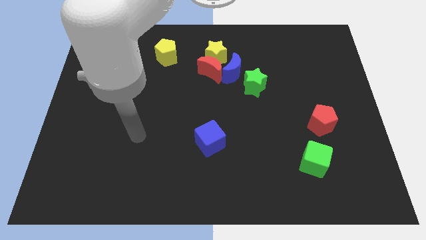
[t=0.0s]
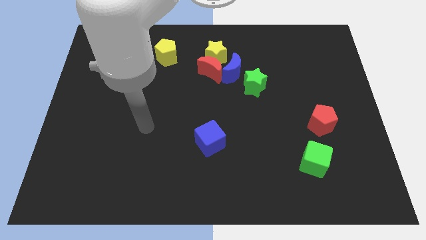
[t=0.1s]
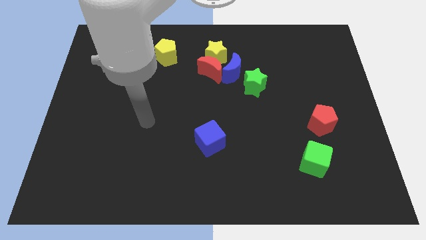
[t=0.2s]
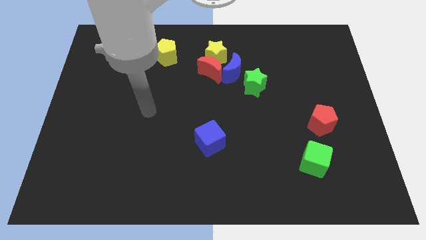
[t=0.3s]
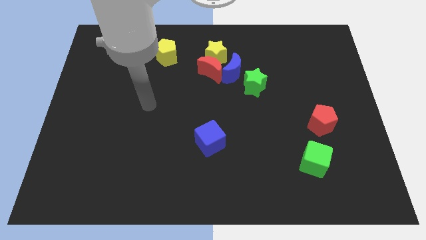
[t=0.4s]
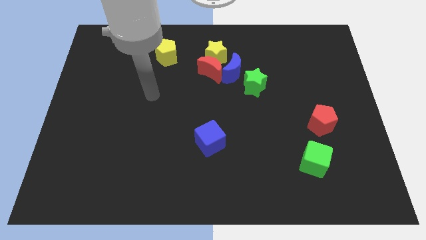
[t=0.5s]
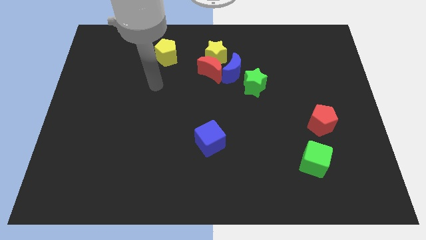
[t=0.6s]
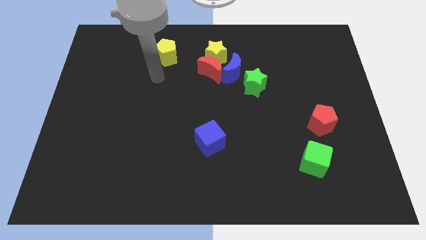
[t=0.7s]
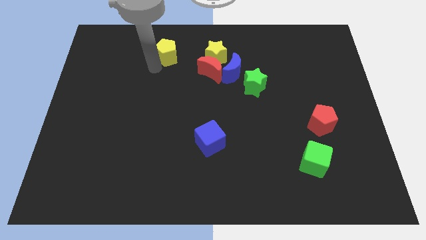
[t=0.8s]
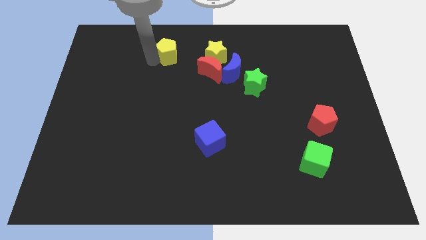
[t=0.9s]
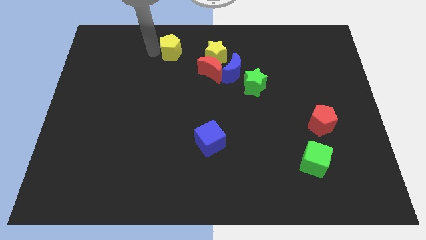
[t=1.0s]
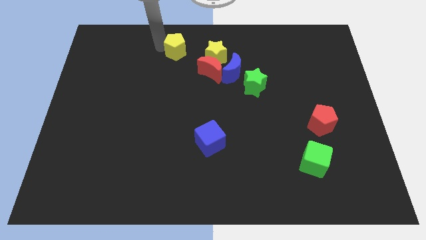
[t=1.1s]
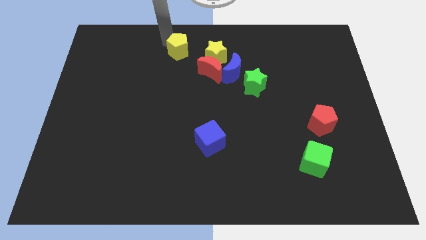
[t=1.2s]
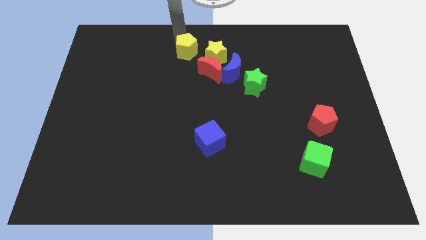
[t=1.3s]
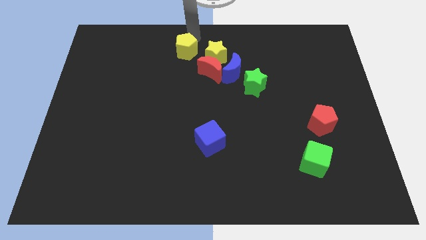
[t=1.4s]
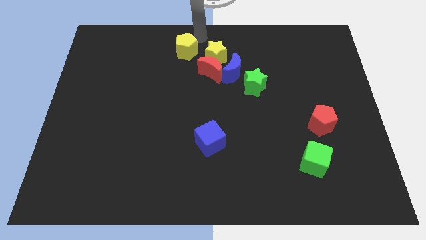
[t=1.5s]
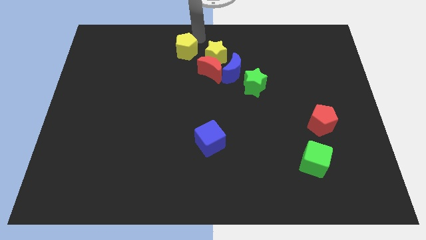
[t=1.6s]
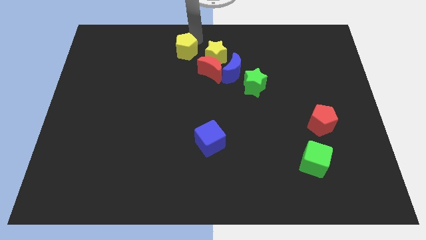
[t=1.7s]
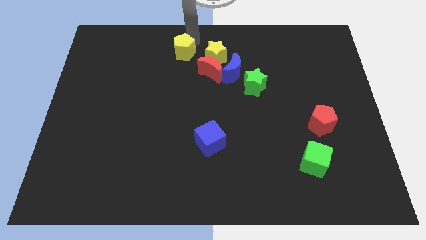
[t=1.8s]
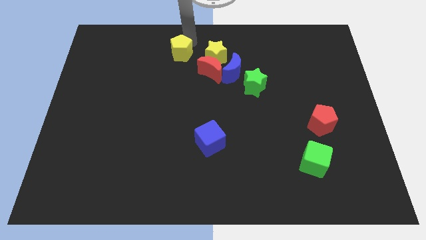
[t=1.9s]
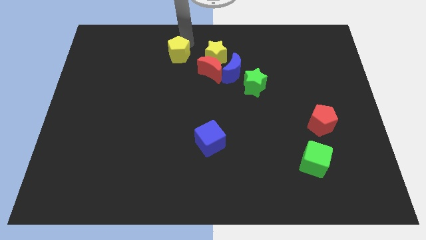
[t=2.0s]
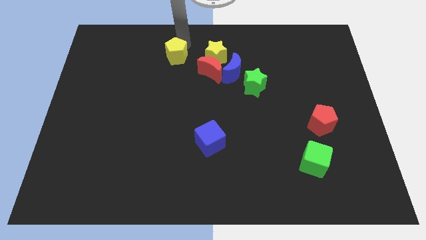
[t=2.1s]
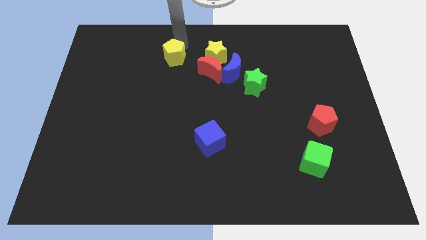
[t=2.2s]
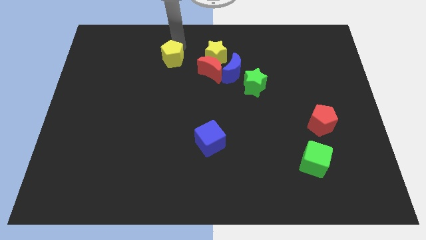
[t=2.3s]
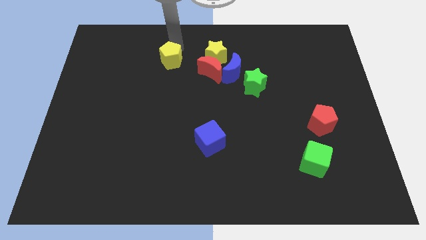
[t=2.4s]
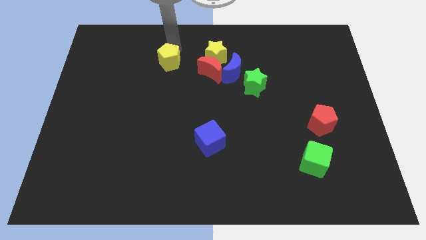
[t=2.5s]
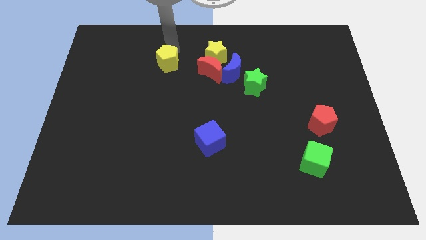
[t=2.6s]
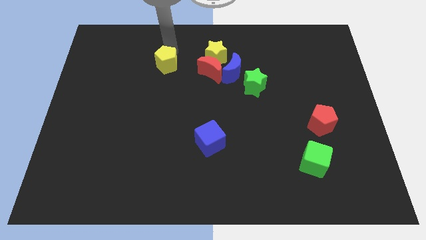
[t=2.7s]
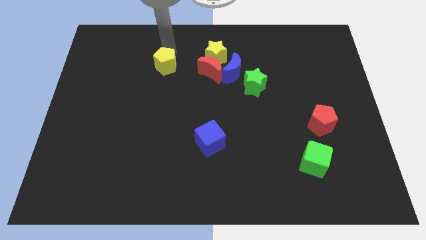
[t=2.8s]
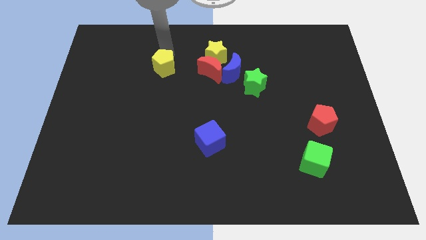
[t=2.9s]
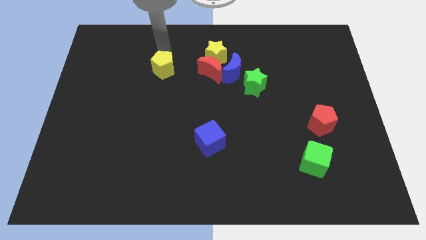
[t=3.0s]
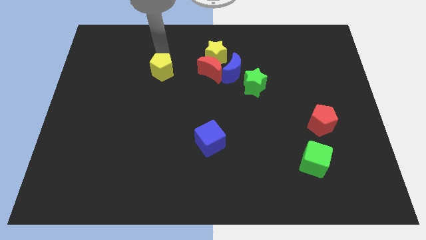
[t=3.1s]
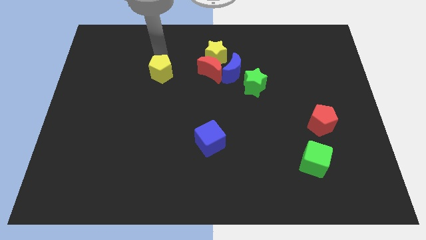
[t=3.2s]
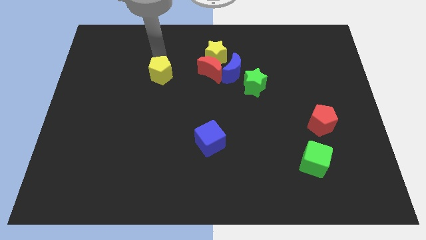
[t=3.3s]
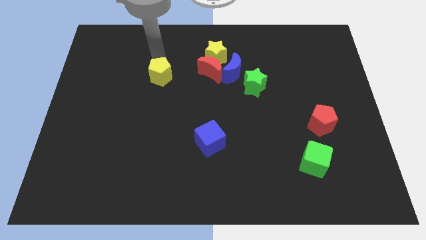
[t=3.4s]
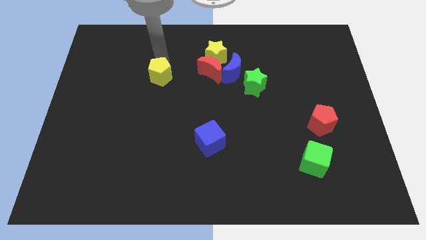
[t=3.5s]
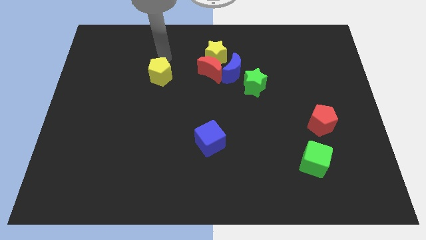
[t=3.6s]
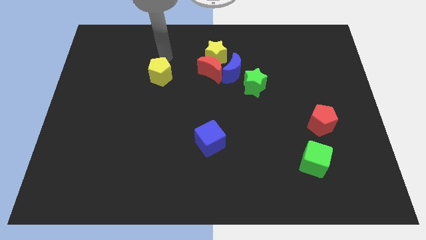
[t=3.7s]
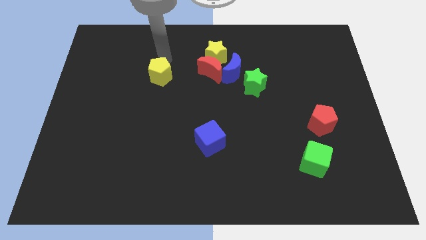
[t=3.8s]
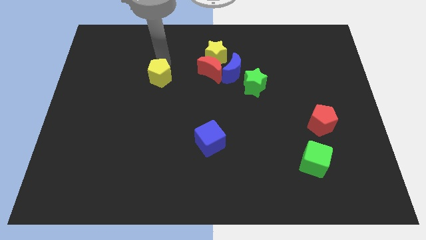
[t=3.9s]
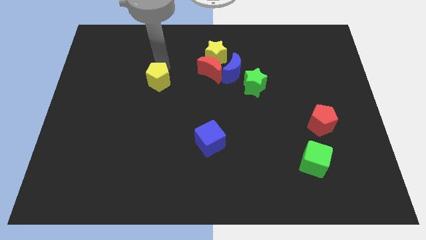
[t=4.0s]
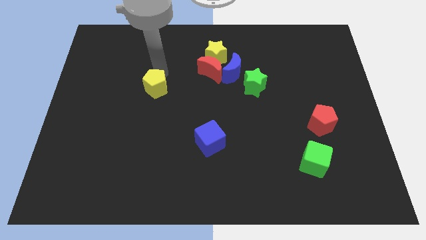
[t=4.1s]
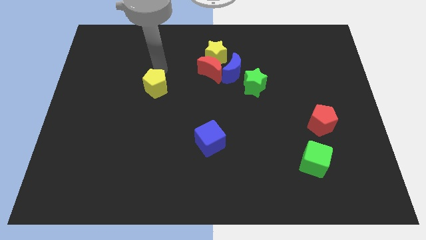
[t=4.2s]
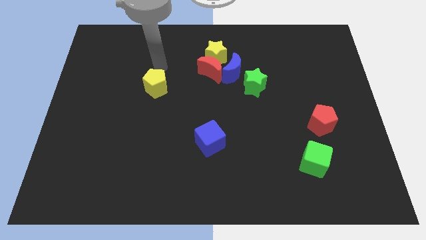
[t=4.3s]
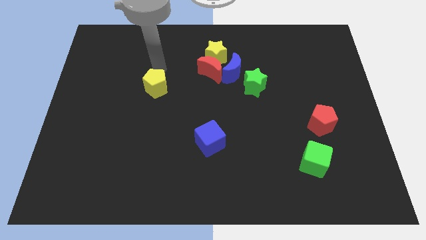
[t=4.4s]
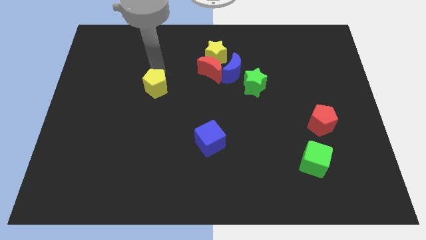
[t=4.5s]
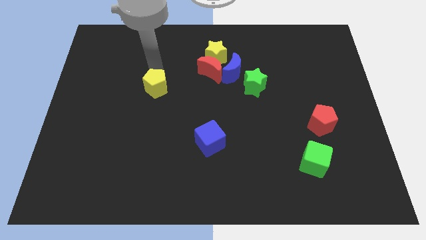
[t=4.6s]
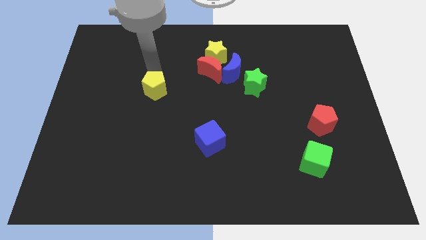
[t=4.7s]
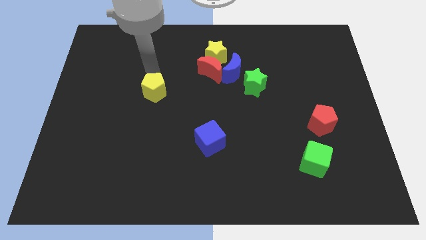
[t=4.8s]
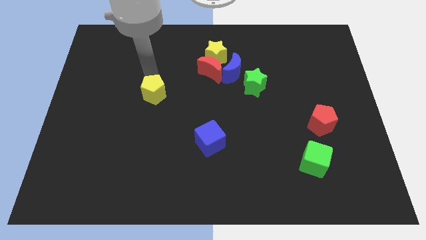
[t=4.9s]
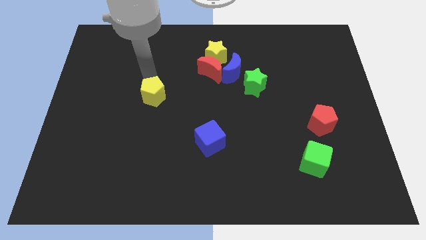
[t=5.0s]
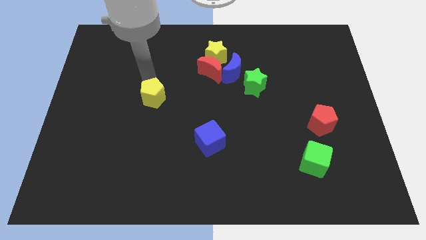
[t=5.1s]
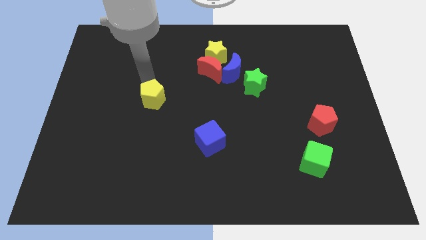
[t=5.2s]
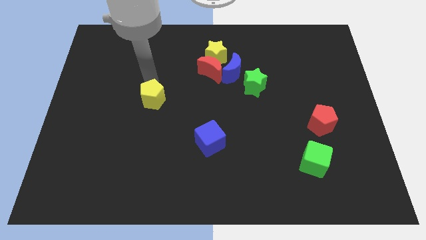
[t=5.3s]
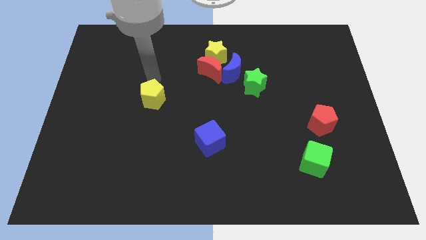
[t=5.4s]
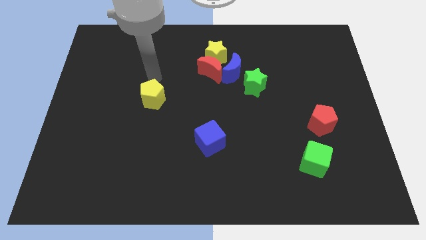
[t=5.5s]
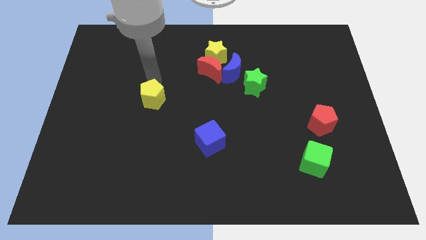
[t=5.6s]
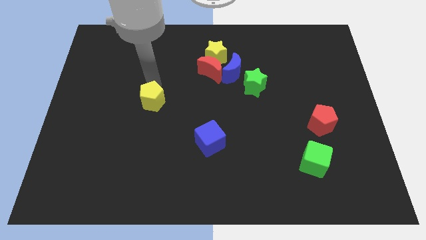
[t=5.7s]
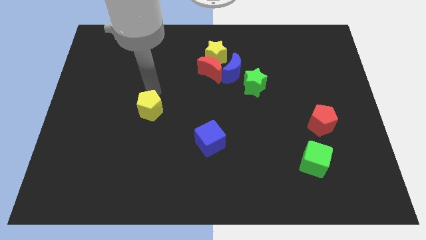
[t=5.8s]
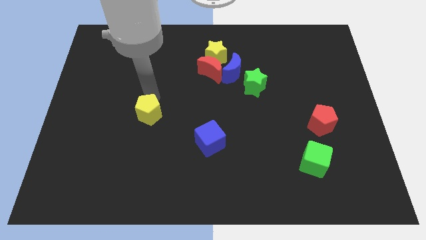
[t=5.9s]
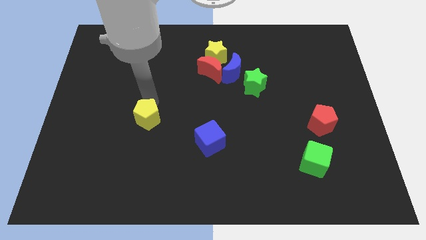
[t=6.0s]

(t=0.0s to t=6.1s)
push the yellow pentagon down

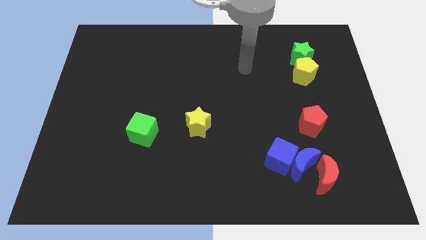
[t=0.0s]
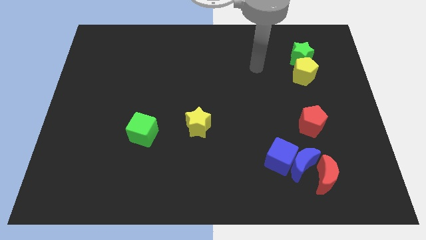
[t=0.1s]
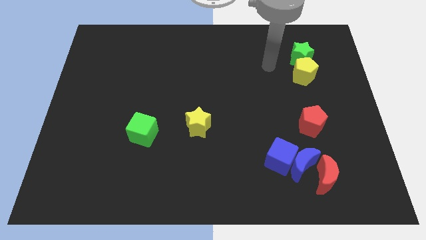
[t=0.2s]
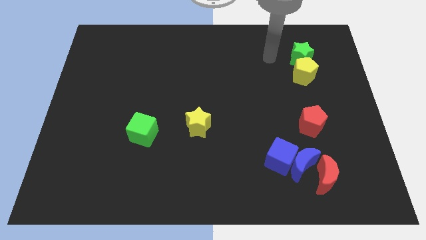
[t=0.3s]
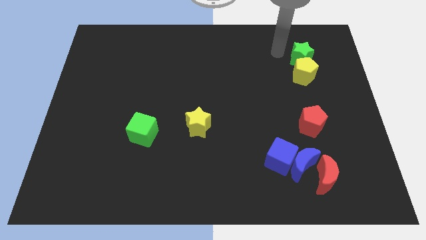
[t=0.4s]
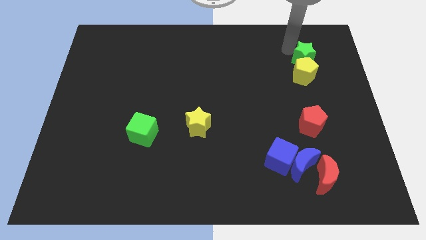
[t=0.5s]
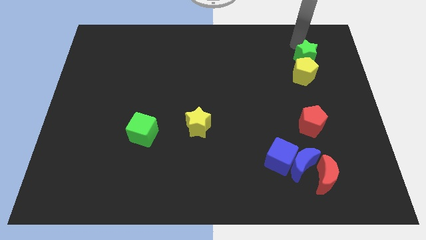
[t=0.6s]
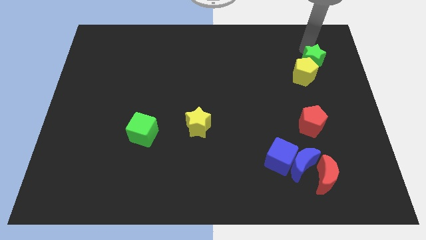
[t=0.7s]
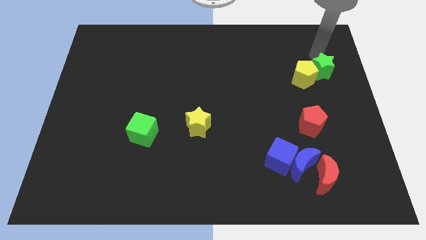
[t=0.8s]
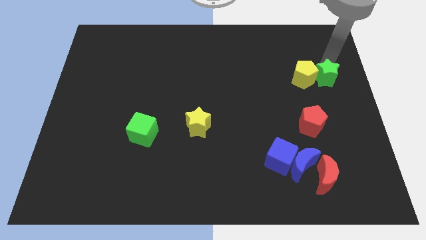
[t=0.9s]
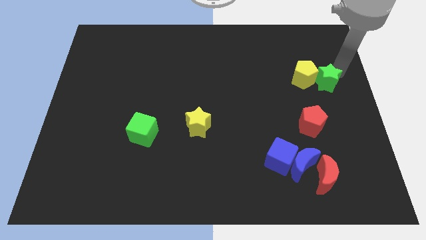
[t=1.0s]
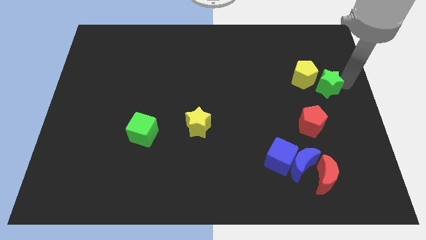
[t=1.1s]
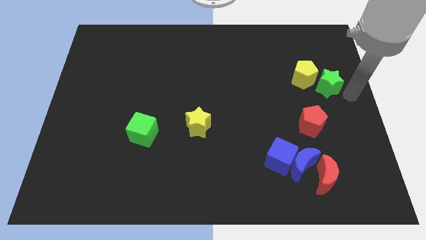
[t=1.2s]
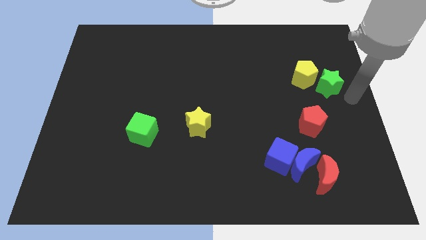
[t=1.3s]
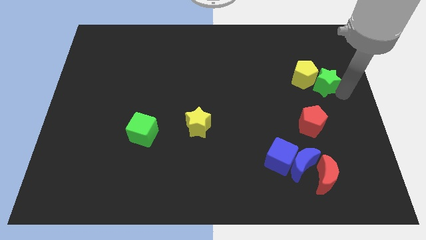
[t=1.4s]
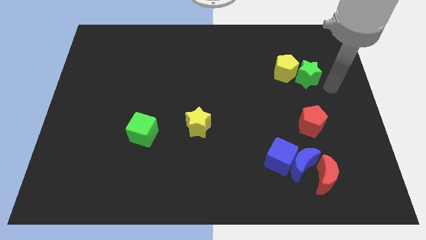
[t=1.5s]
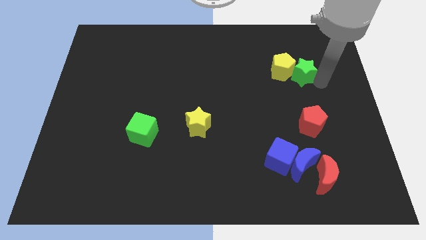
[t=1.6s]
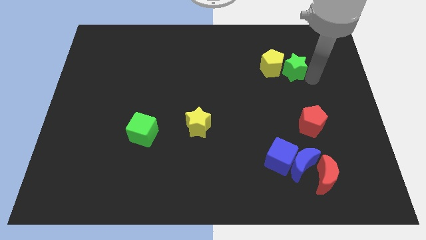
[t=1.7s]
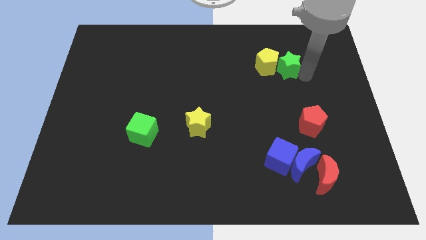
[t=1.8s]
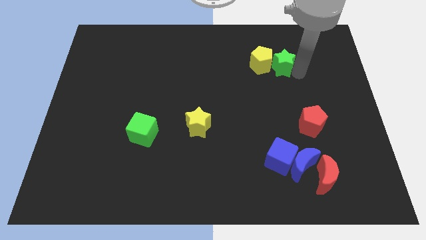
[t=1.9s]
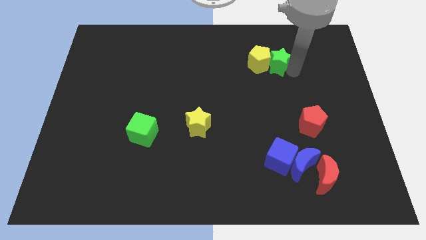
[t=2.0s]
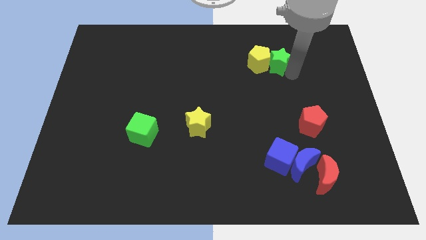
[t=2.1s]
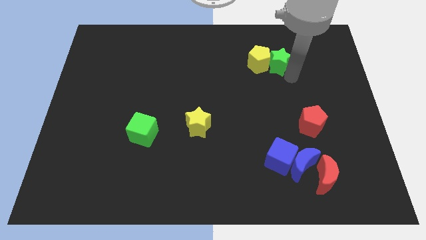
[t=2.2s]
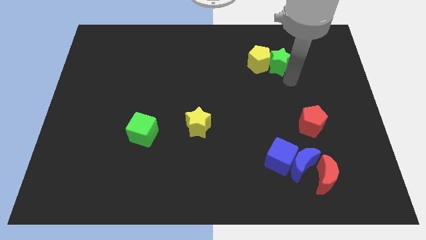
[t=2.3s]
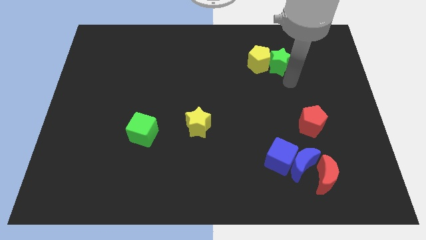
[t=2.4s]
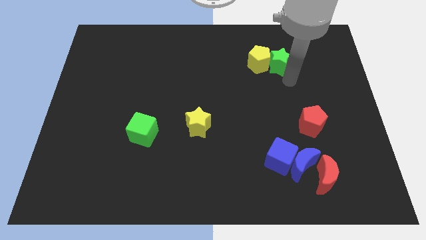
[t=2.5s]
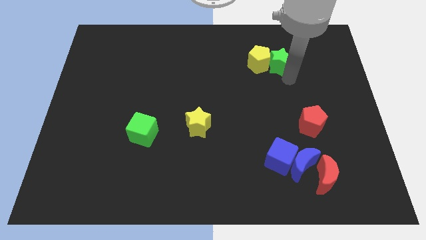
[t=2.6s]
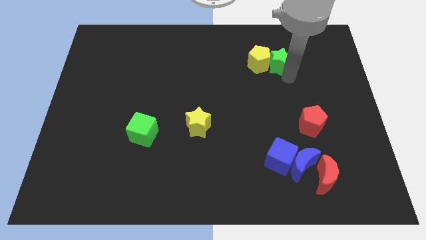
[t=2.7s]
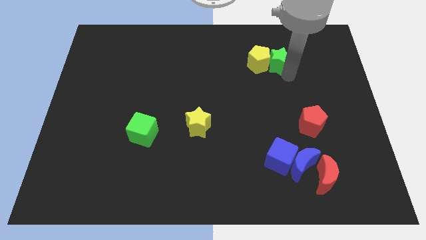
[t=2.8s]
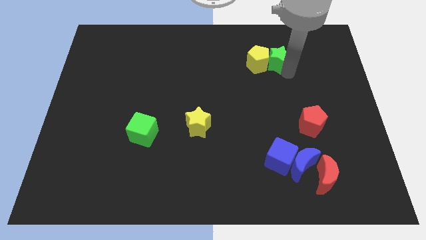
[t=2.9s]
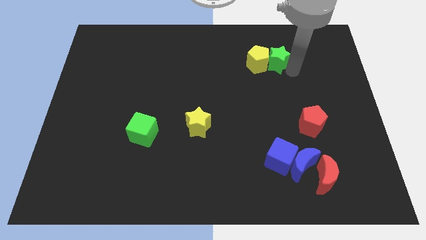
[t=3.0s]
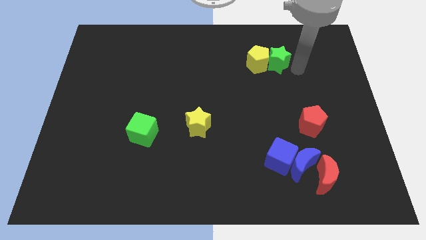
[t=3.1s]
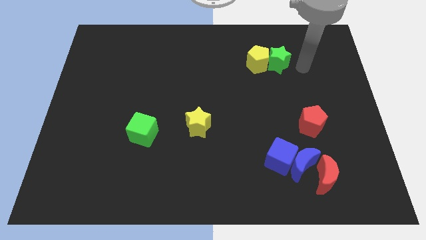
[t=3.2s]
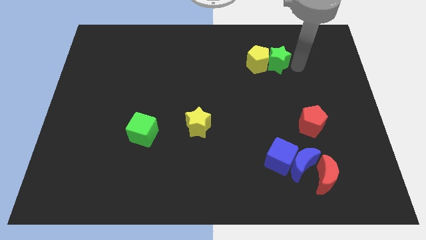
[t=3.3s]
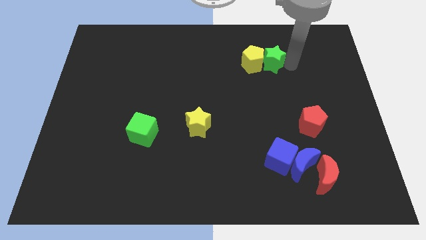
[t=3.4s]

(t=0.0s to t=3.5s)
slightly slide the green star to the left
